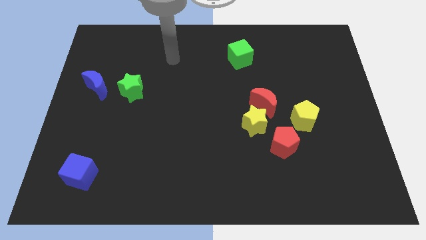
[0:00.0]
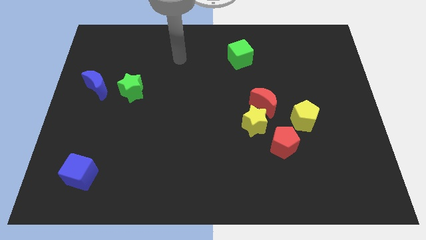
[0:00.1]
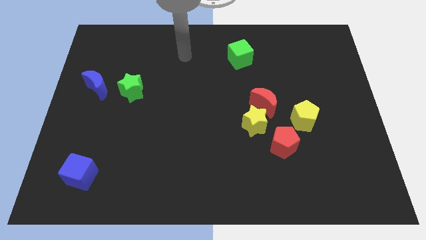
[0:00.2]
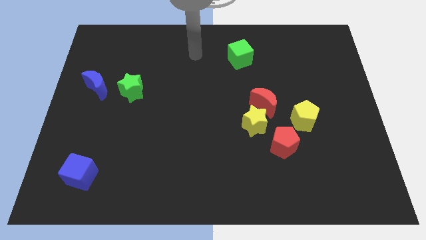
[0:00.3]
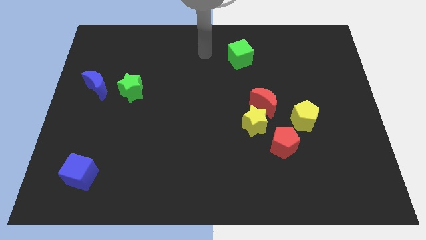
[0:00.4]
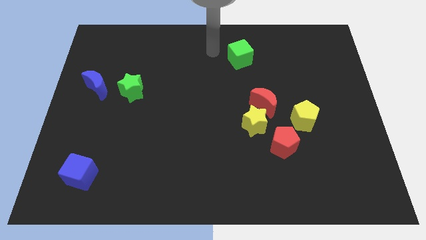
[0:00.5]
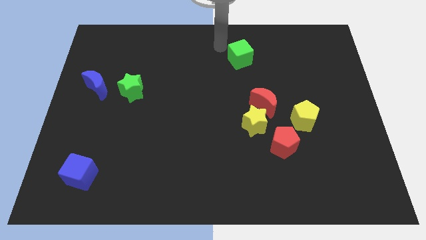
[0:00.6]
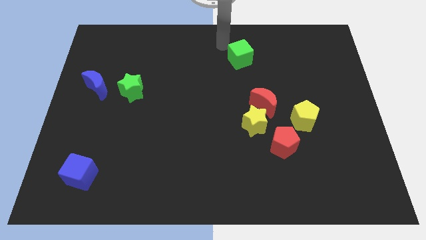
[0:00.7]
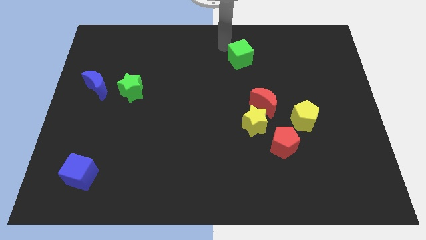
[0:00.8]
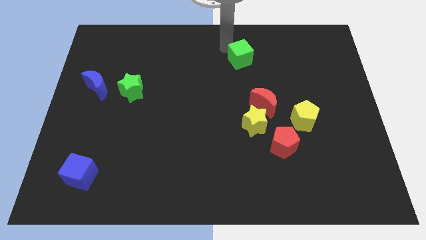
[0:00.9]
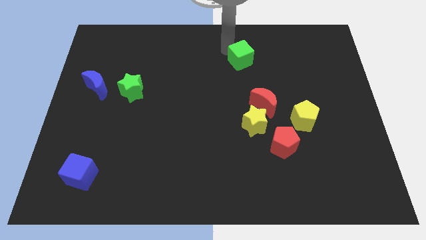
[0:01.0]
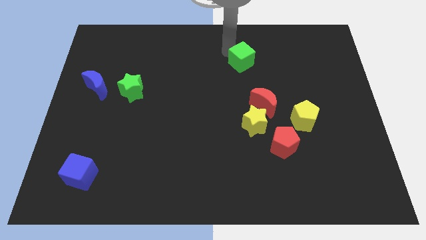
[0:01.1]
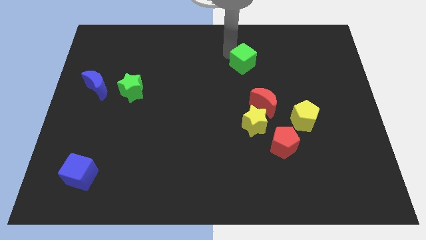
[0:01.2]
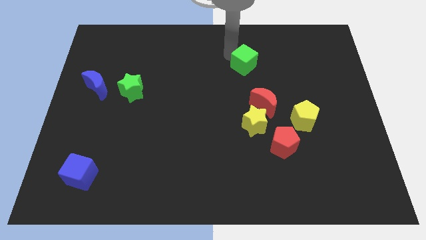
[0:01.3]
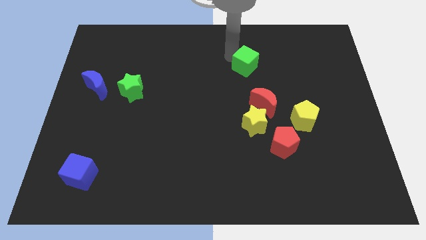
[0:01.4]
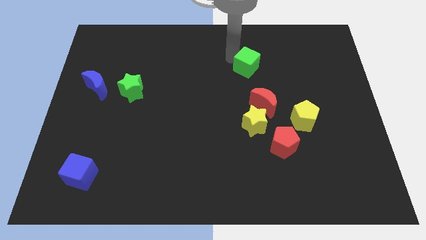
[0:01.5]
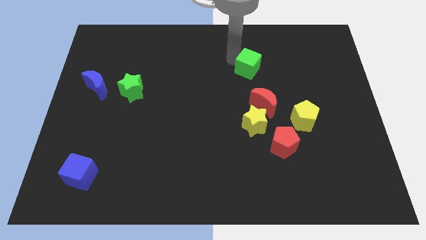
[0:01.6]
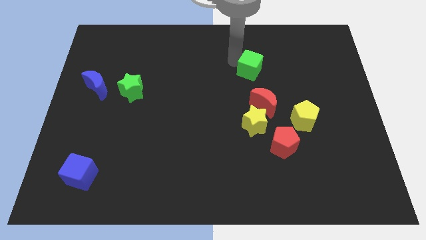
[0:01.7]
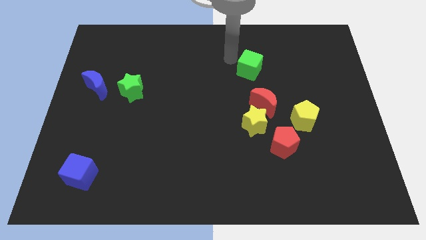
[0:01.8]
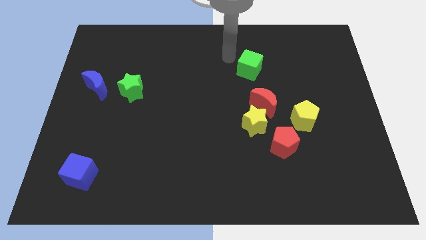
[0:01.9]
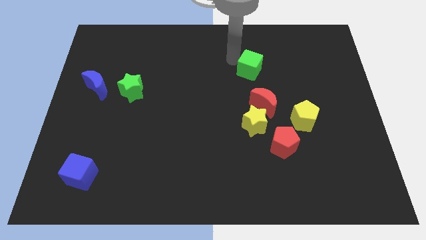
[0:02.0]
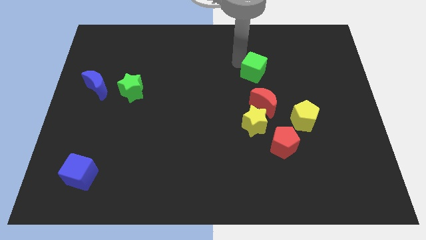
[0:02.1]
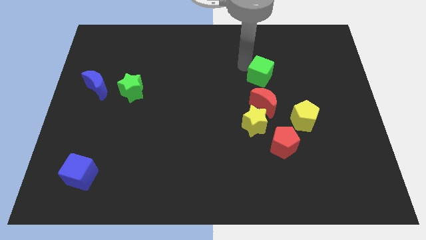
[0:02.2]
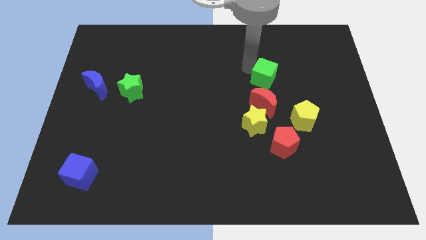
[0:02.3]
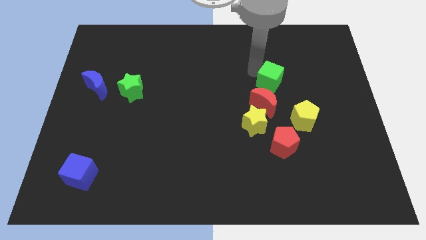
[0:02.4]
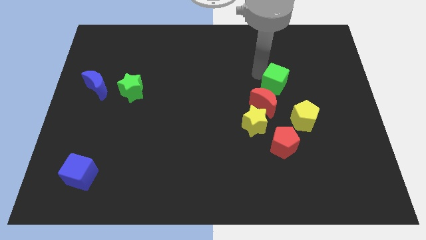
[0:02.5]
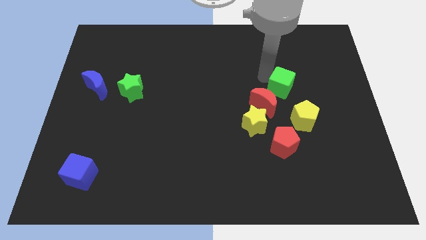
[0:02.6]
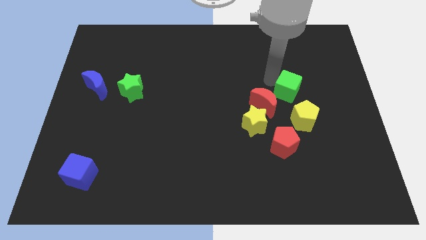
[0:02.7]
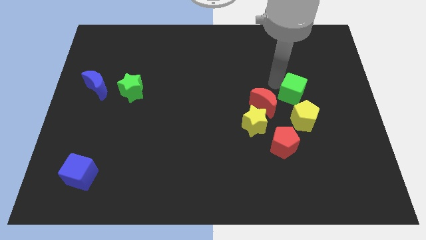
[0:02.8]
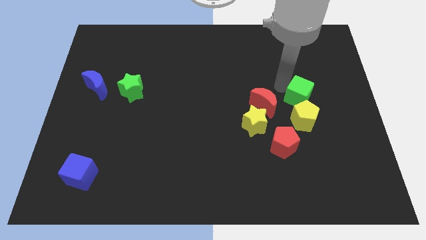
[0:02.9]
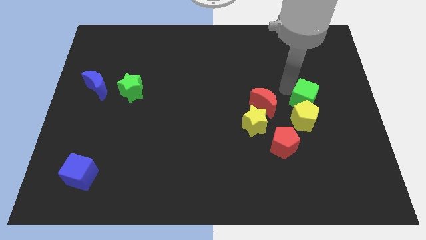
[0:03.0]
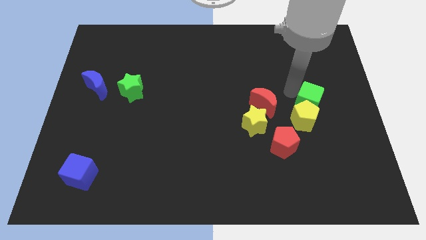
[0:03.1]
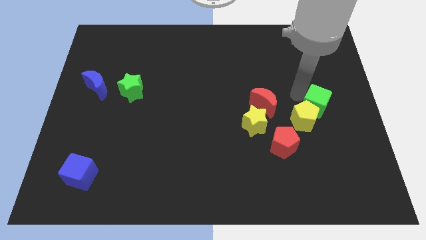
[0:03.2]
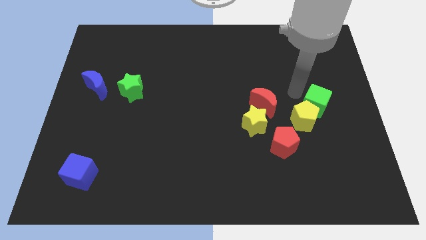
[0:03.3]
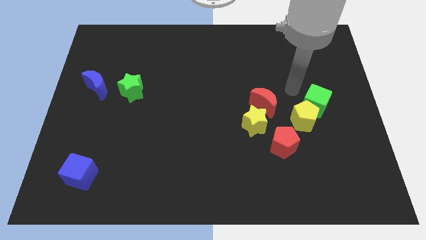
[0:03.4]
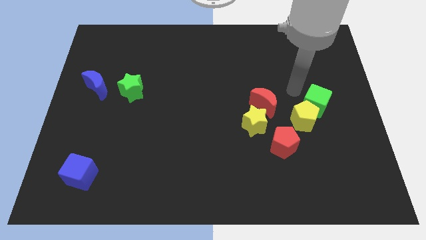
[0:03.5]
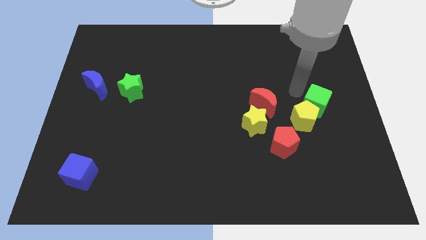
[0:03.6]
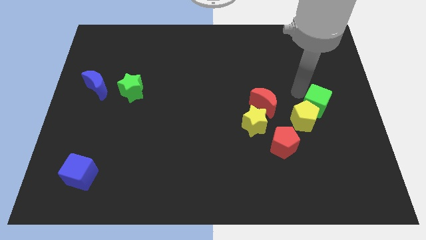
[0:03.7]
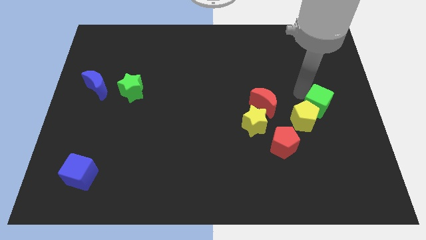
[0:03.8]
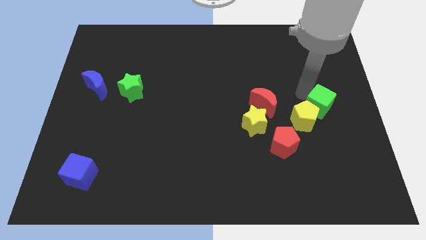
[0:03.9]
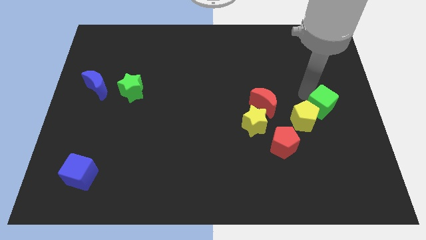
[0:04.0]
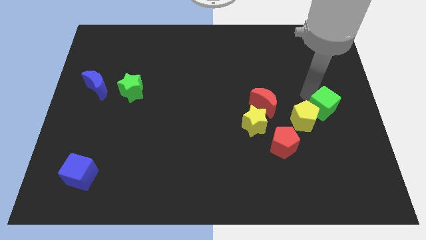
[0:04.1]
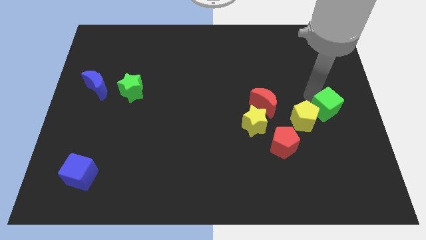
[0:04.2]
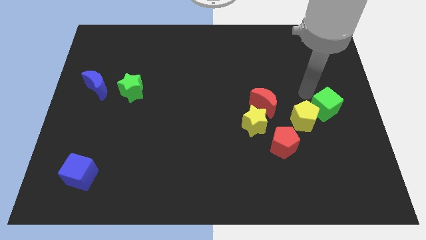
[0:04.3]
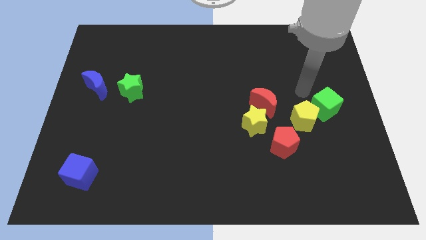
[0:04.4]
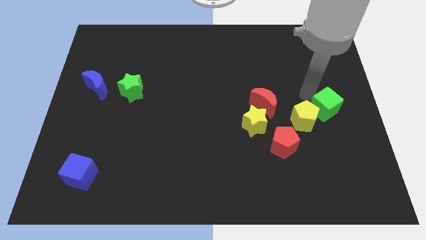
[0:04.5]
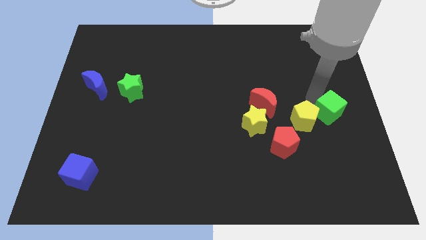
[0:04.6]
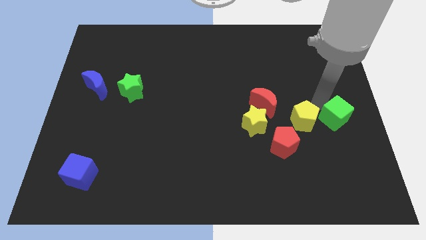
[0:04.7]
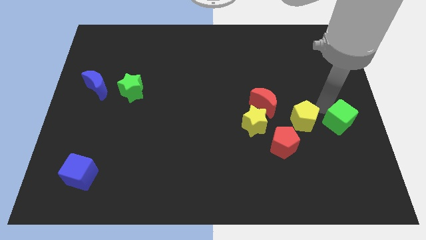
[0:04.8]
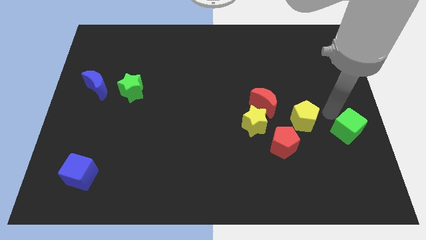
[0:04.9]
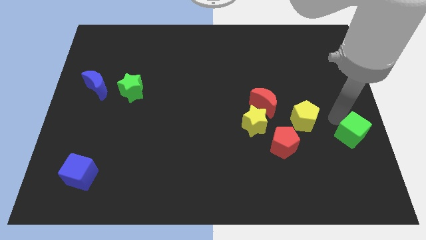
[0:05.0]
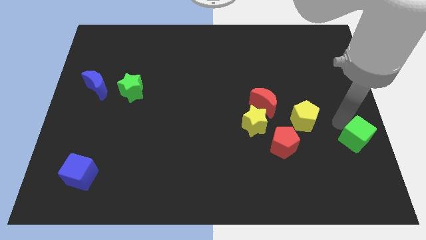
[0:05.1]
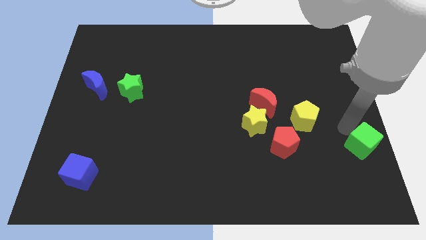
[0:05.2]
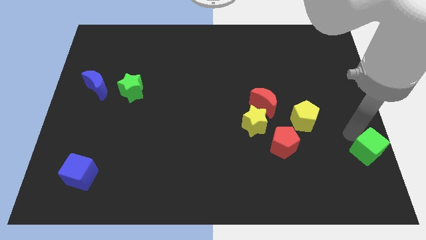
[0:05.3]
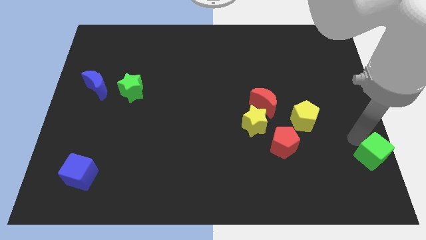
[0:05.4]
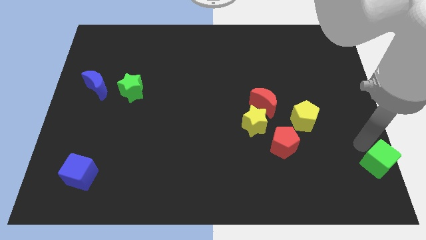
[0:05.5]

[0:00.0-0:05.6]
move the green cube to the bottom right of the board

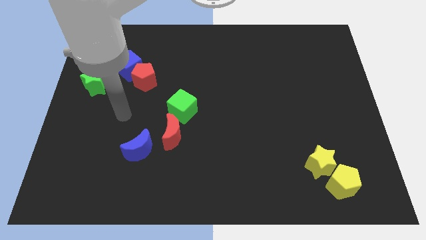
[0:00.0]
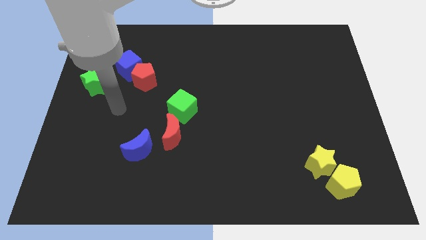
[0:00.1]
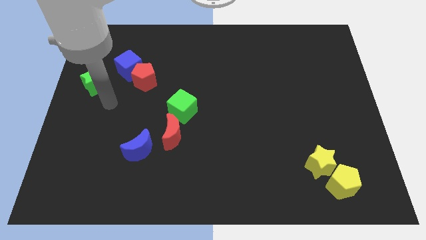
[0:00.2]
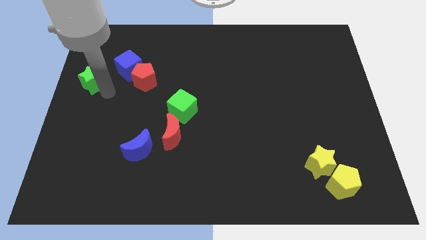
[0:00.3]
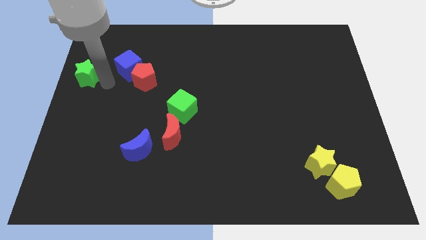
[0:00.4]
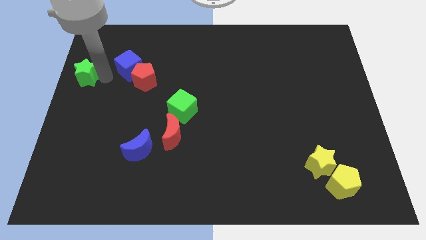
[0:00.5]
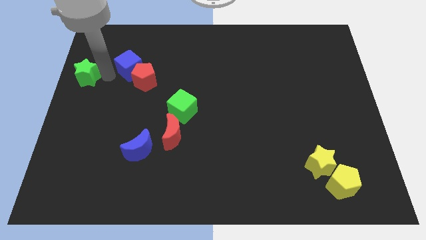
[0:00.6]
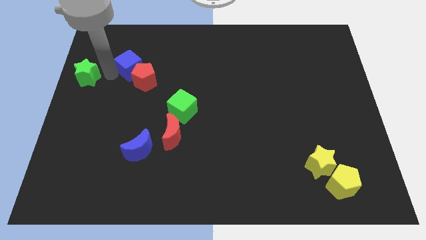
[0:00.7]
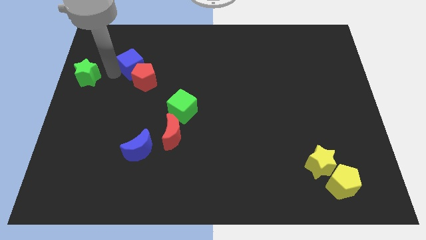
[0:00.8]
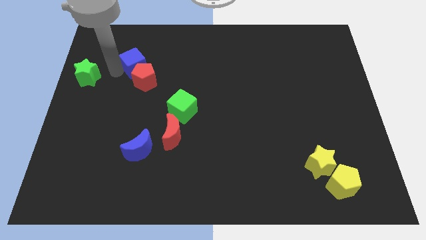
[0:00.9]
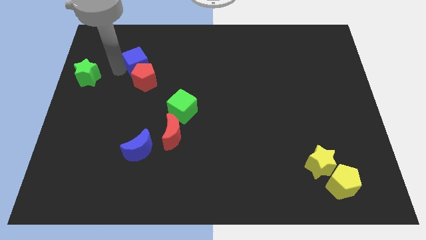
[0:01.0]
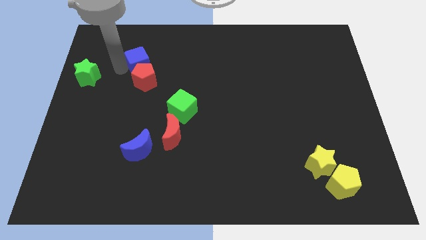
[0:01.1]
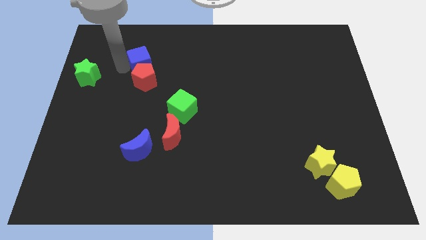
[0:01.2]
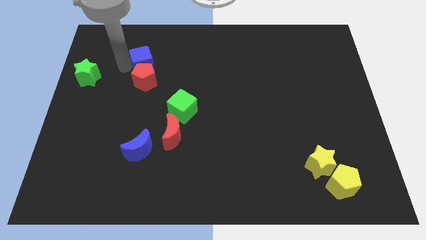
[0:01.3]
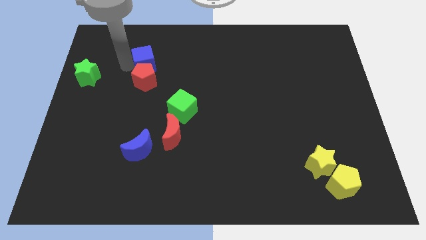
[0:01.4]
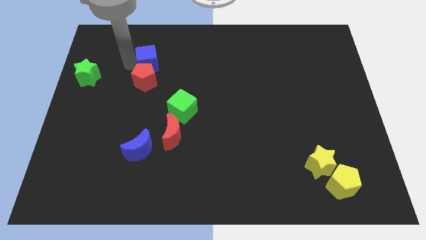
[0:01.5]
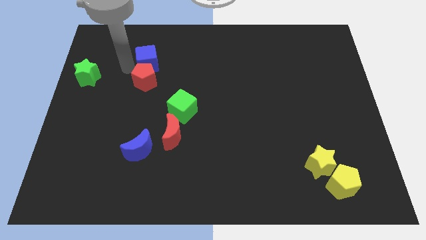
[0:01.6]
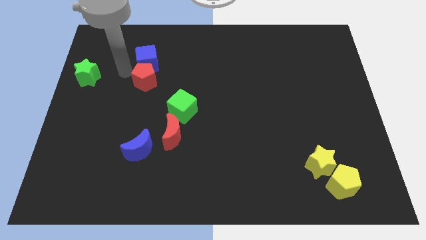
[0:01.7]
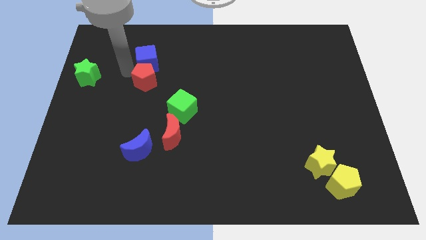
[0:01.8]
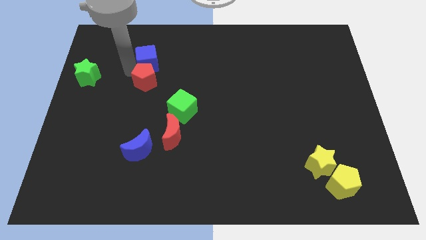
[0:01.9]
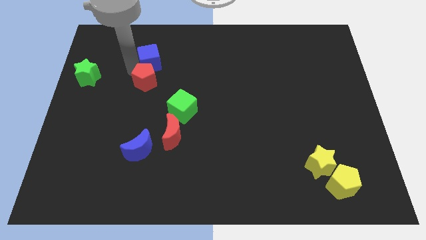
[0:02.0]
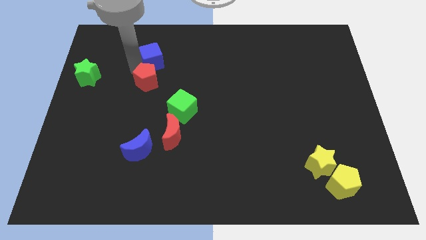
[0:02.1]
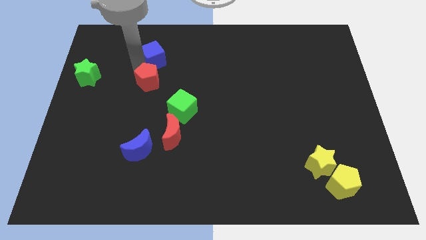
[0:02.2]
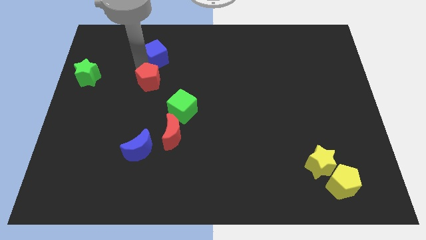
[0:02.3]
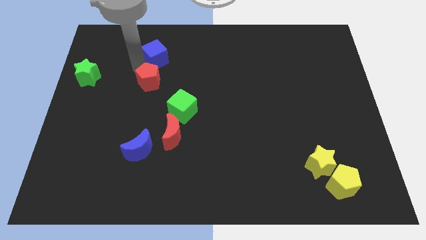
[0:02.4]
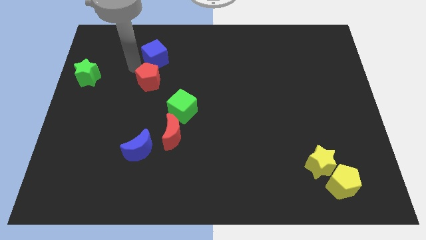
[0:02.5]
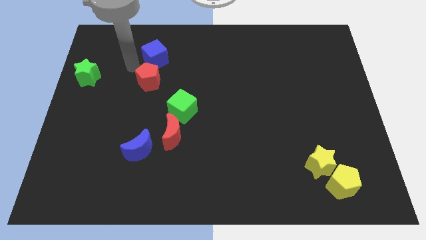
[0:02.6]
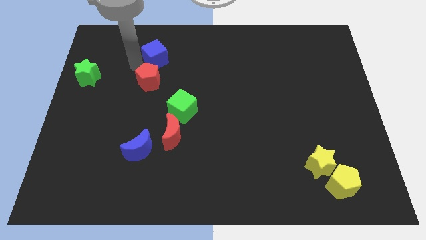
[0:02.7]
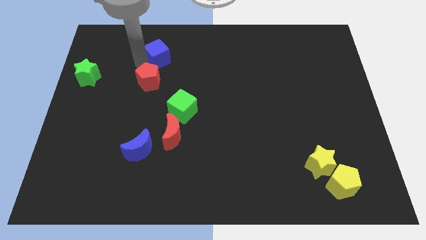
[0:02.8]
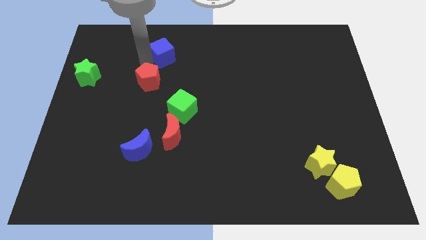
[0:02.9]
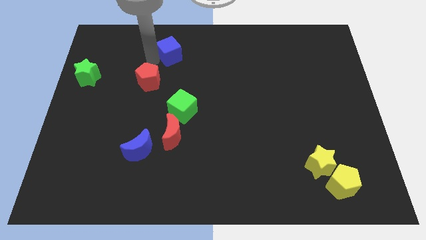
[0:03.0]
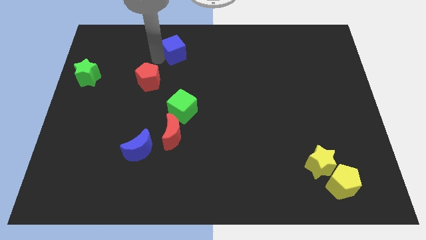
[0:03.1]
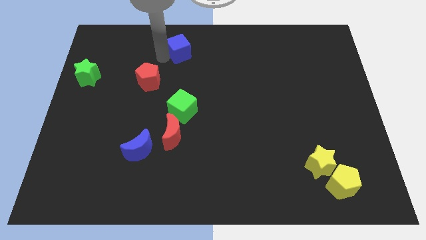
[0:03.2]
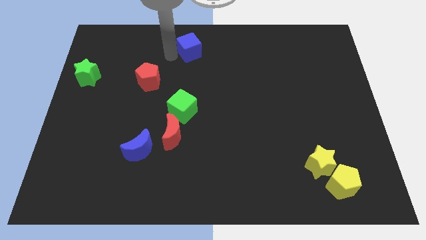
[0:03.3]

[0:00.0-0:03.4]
slide the blue cube to the top
